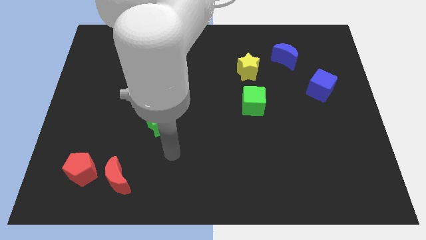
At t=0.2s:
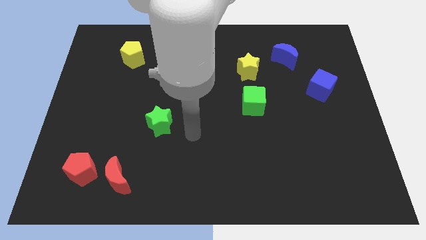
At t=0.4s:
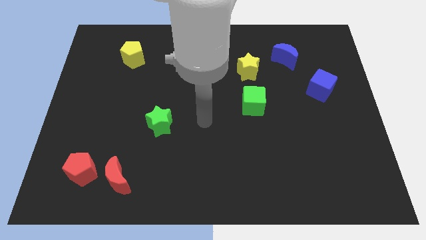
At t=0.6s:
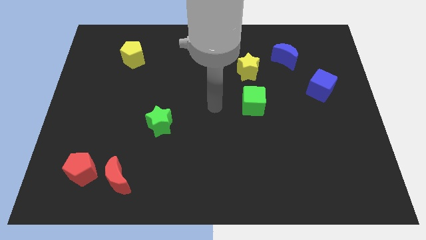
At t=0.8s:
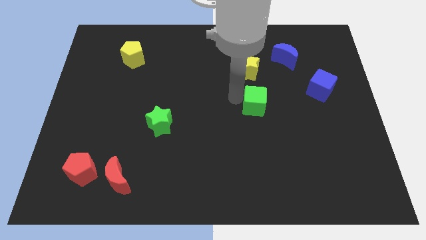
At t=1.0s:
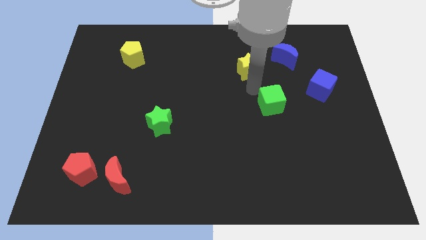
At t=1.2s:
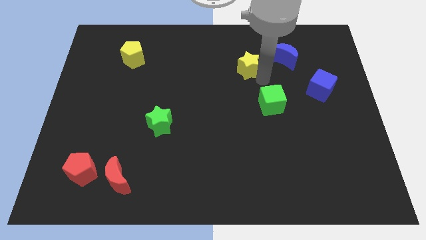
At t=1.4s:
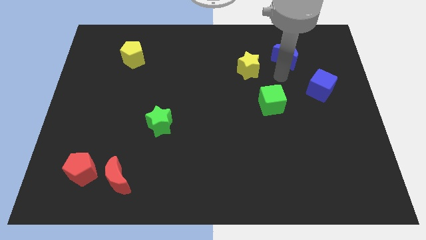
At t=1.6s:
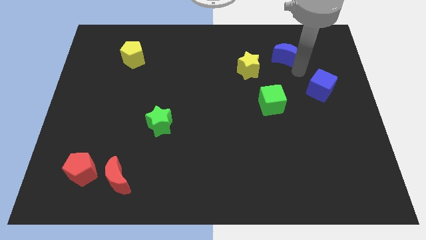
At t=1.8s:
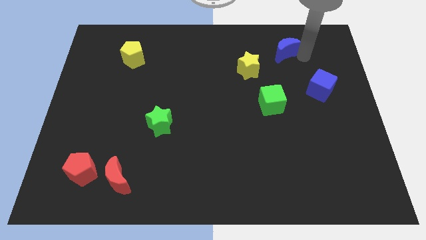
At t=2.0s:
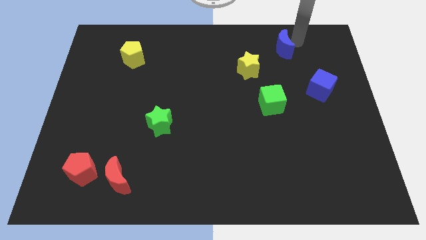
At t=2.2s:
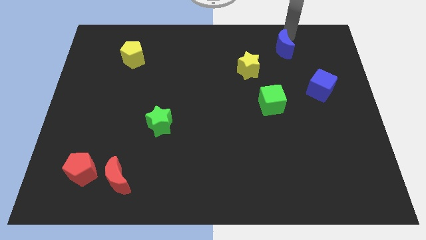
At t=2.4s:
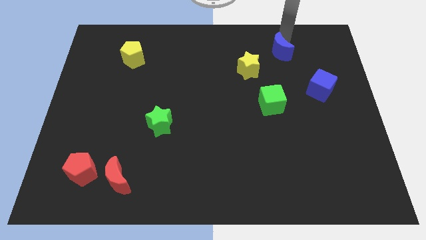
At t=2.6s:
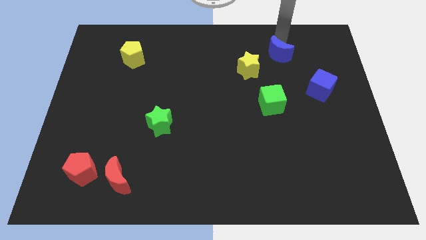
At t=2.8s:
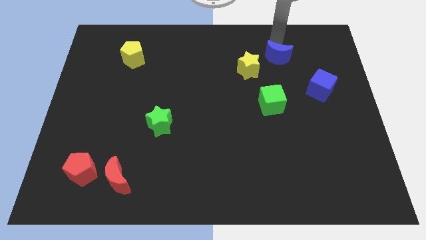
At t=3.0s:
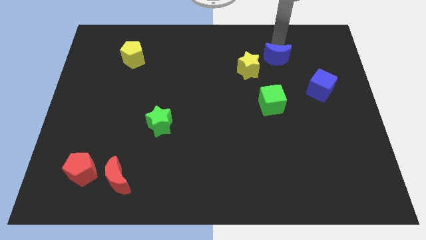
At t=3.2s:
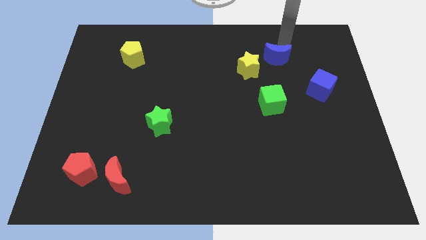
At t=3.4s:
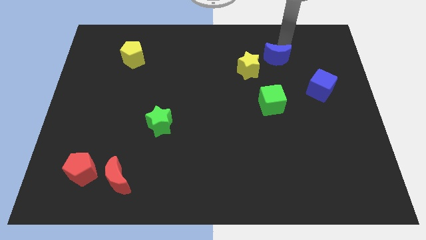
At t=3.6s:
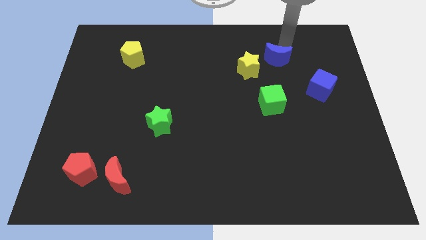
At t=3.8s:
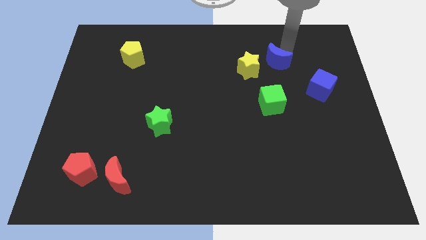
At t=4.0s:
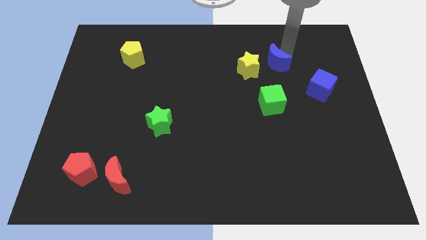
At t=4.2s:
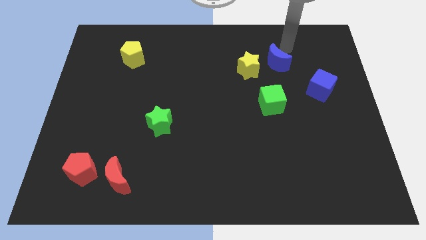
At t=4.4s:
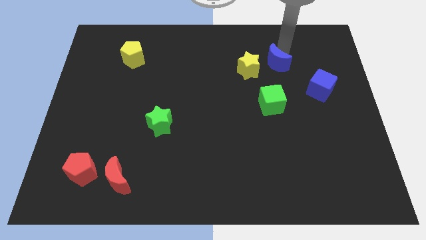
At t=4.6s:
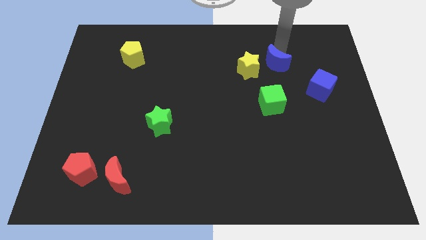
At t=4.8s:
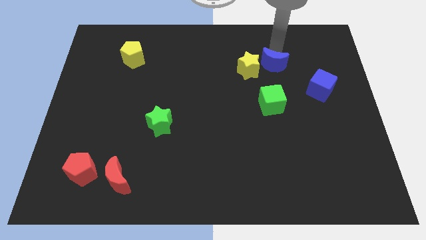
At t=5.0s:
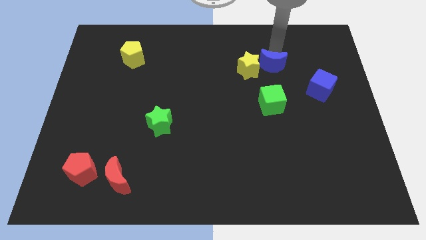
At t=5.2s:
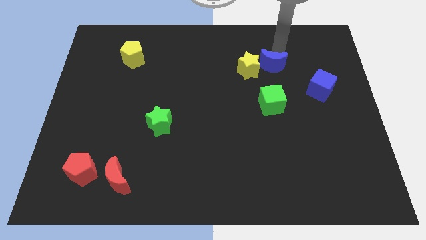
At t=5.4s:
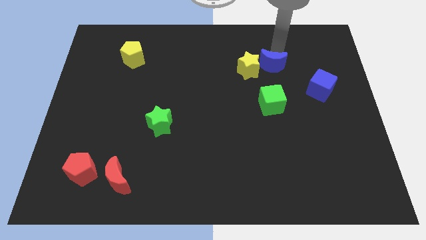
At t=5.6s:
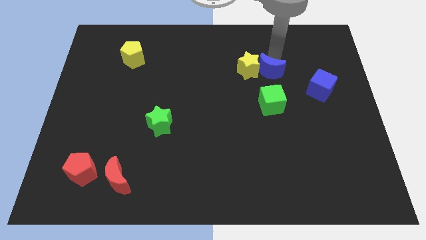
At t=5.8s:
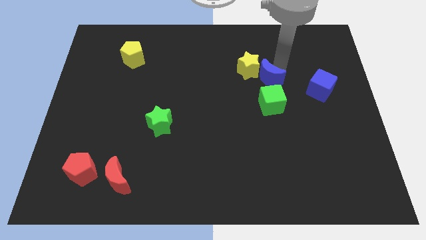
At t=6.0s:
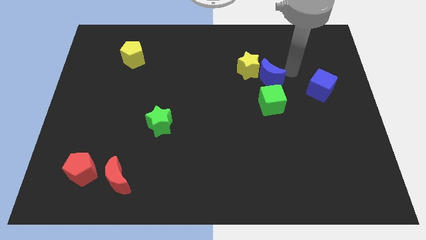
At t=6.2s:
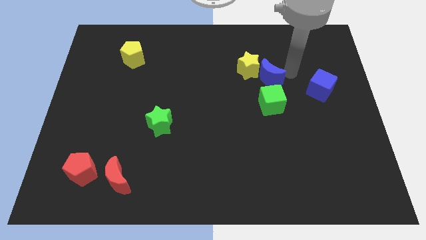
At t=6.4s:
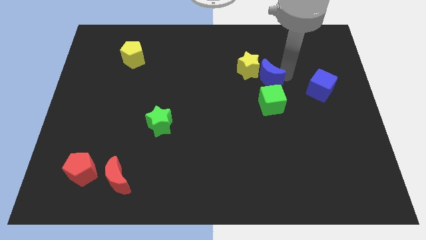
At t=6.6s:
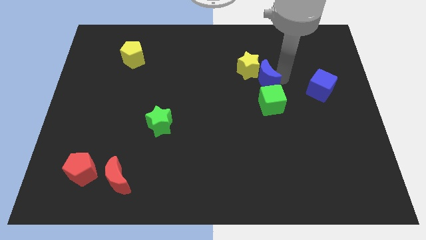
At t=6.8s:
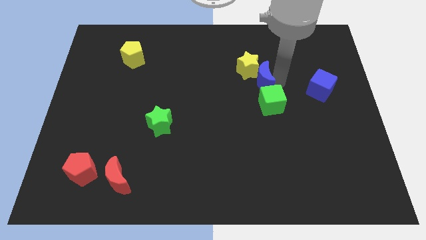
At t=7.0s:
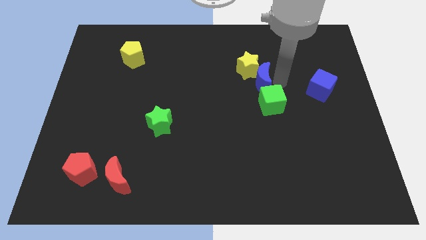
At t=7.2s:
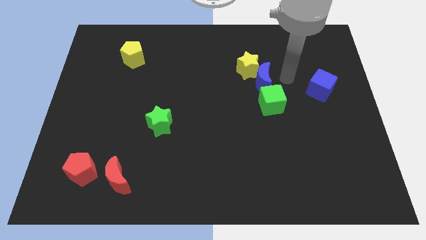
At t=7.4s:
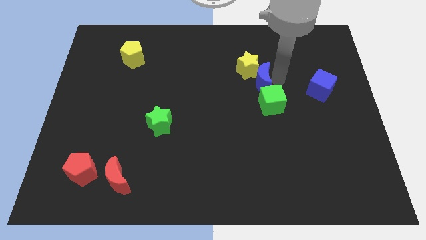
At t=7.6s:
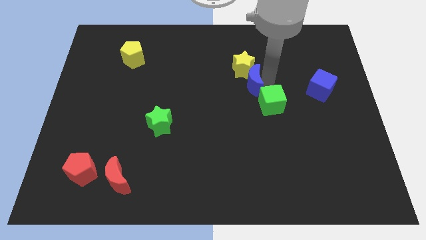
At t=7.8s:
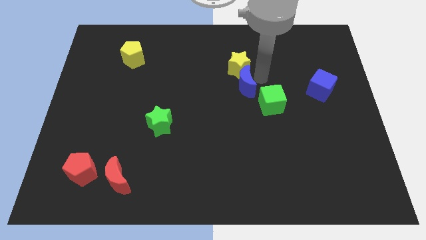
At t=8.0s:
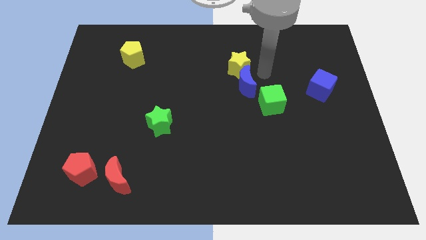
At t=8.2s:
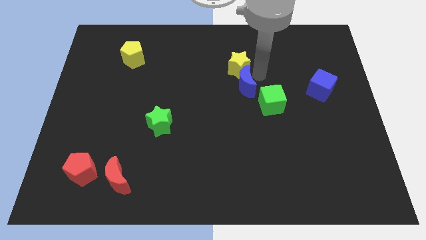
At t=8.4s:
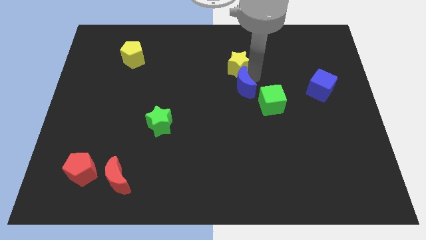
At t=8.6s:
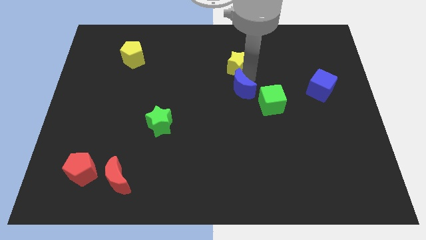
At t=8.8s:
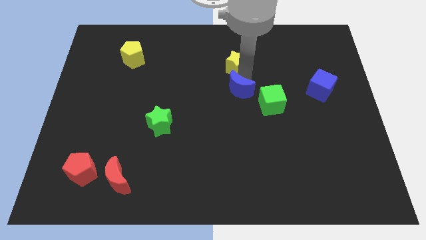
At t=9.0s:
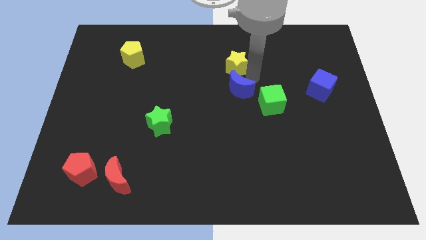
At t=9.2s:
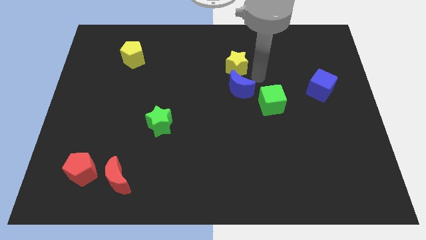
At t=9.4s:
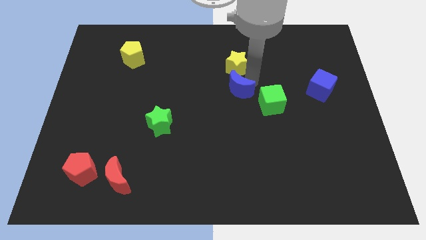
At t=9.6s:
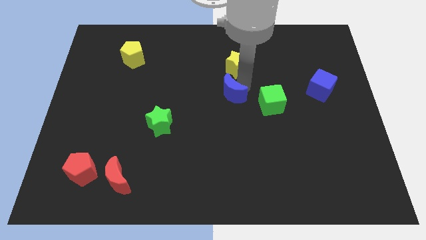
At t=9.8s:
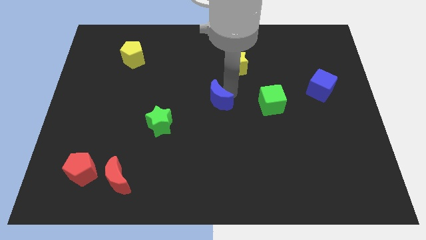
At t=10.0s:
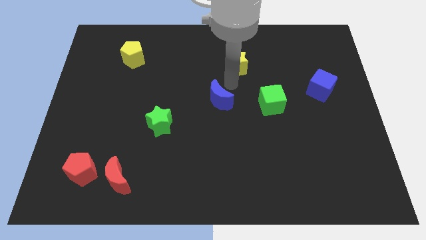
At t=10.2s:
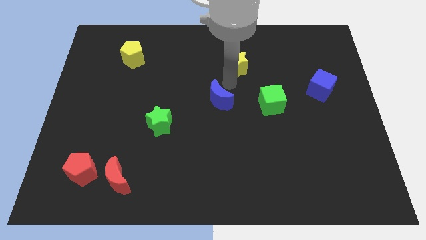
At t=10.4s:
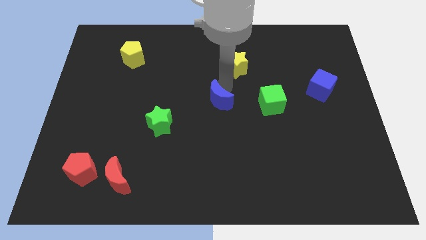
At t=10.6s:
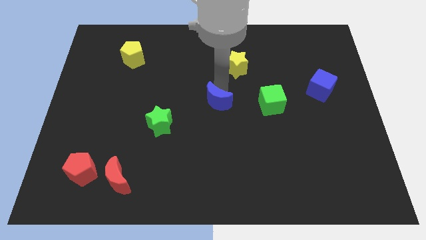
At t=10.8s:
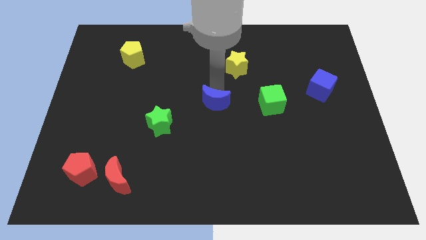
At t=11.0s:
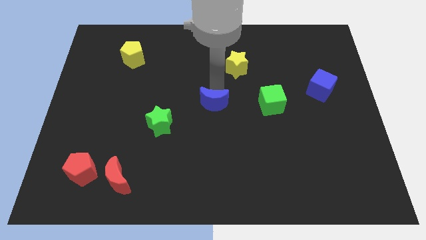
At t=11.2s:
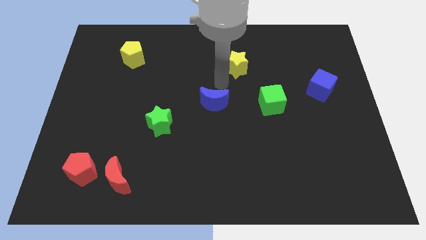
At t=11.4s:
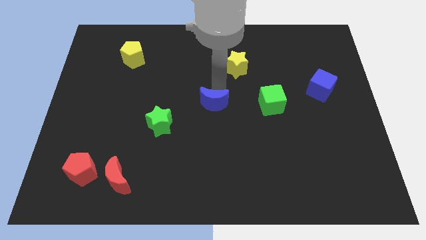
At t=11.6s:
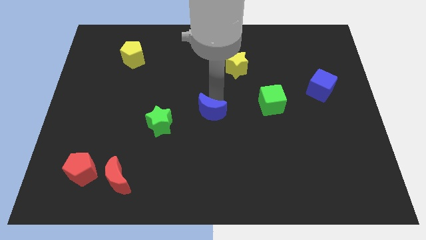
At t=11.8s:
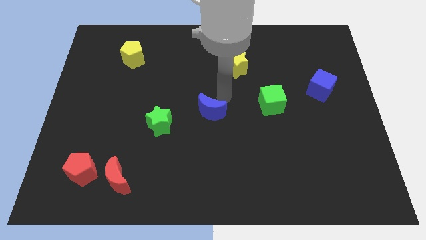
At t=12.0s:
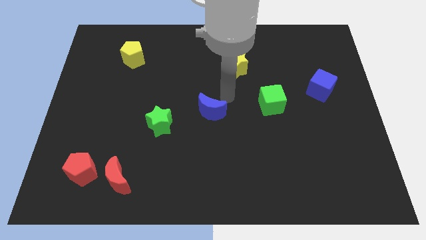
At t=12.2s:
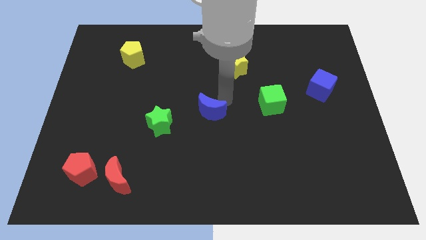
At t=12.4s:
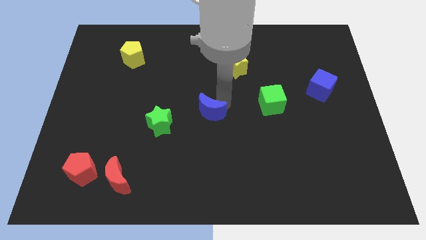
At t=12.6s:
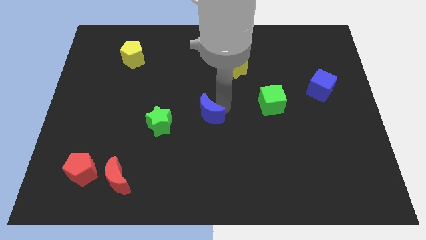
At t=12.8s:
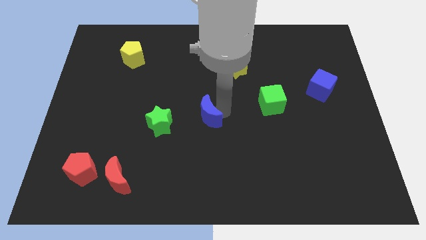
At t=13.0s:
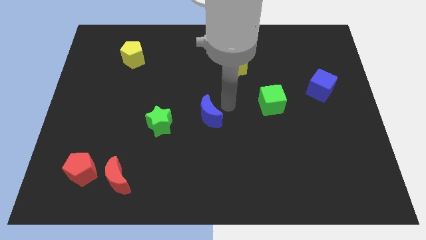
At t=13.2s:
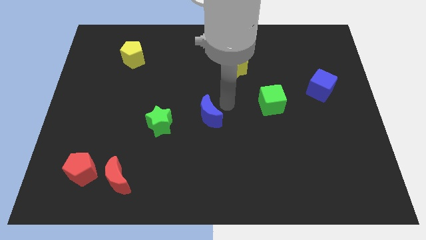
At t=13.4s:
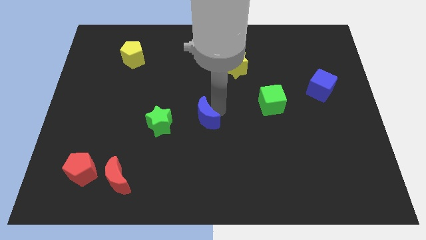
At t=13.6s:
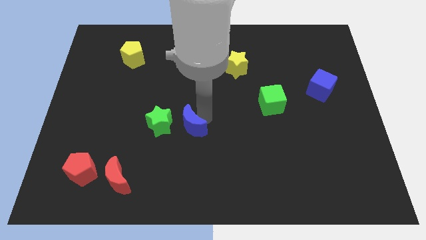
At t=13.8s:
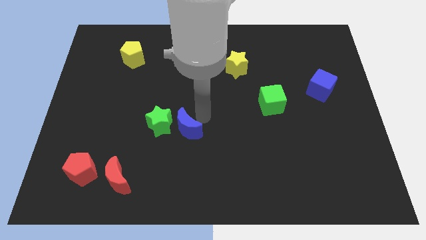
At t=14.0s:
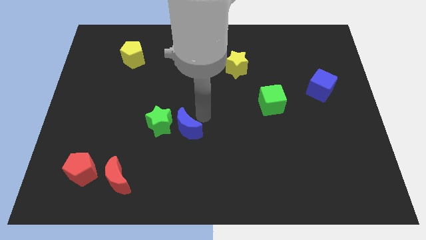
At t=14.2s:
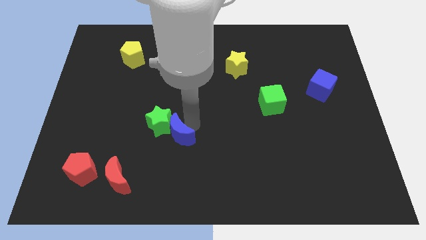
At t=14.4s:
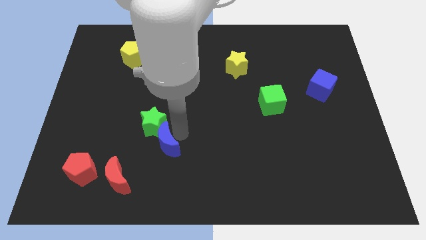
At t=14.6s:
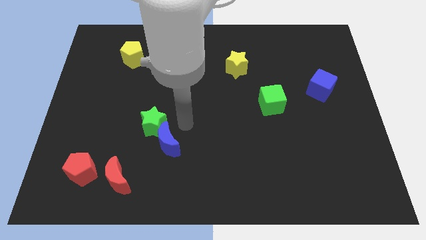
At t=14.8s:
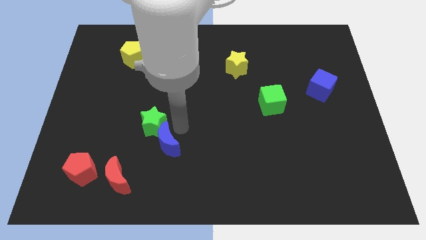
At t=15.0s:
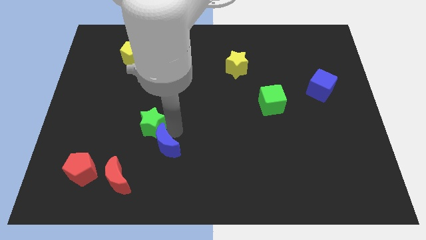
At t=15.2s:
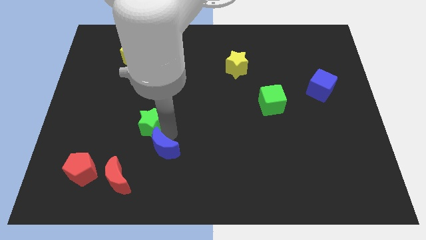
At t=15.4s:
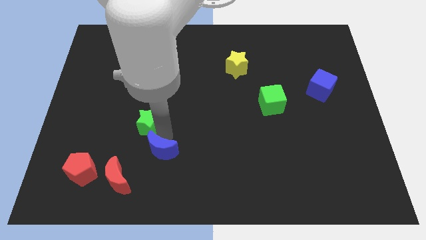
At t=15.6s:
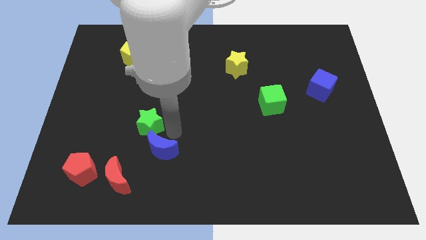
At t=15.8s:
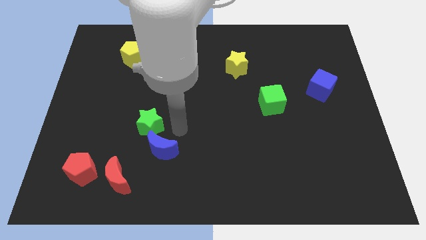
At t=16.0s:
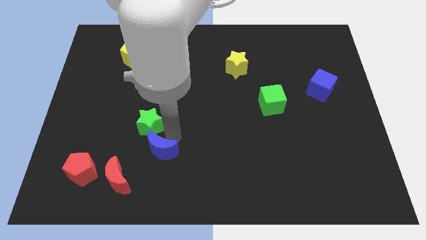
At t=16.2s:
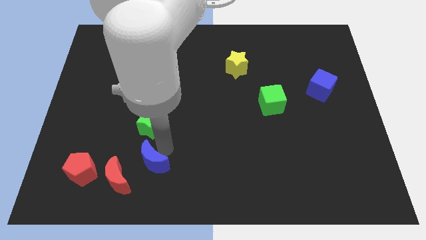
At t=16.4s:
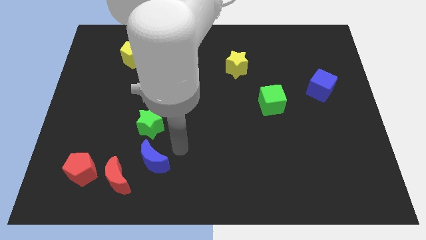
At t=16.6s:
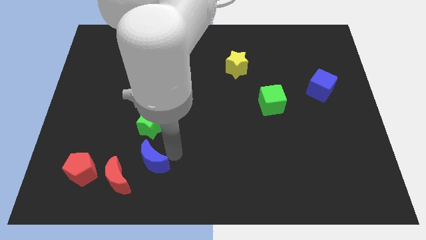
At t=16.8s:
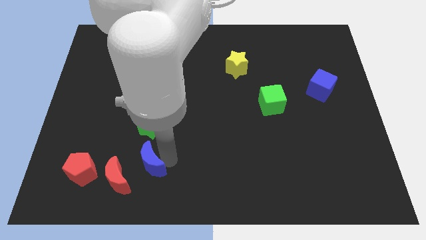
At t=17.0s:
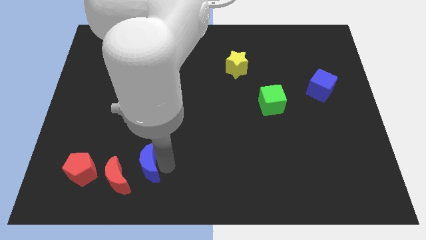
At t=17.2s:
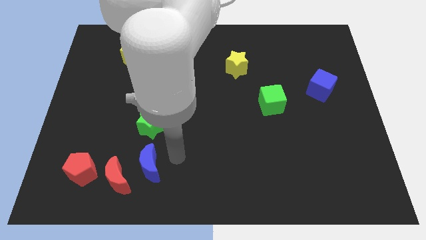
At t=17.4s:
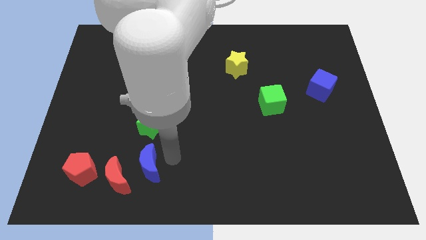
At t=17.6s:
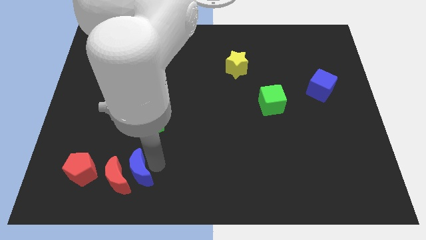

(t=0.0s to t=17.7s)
push the blue moon to the red moon
